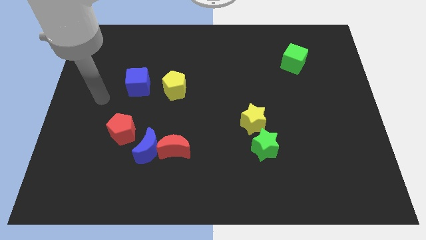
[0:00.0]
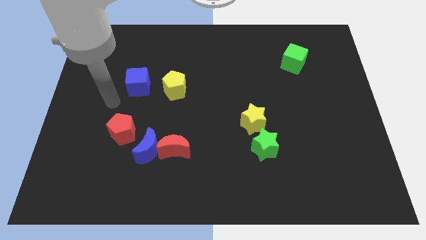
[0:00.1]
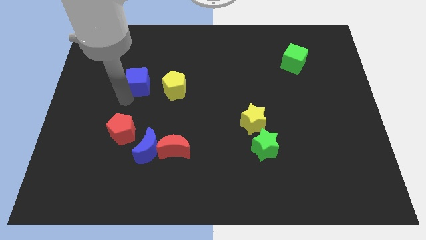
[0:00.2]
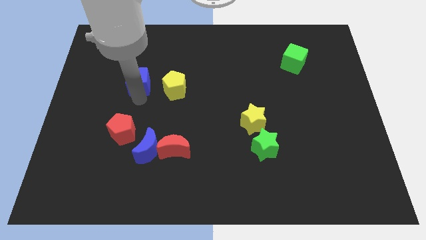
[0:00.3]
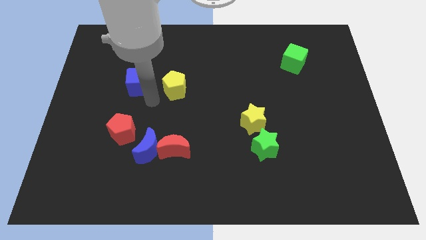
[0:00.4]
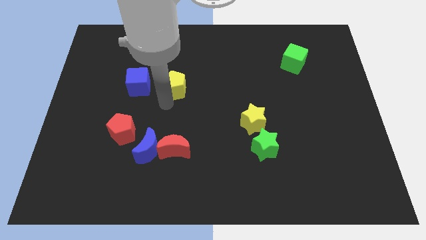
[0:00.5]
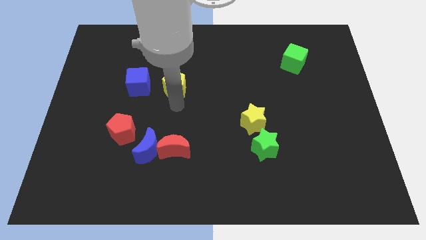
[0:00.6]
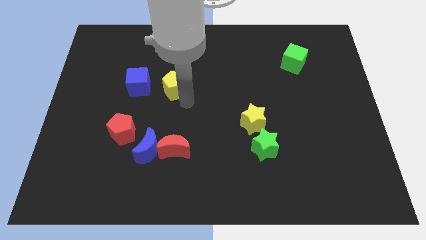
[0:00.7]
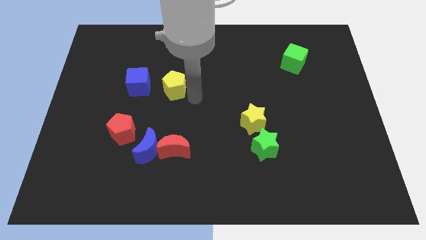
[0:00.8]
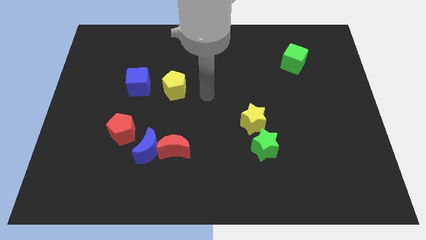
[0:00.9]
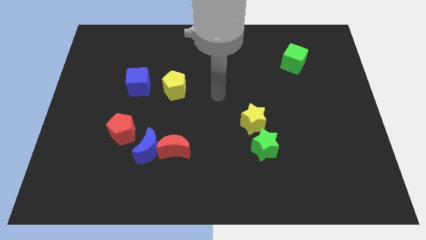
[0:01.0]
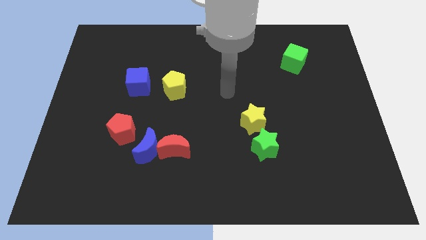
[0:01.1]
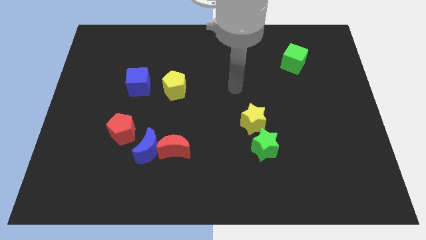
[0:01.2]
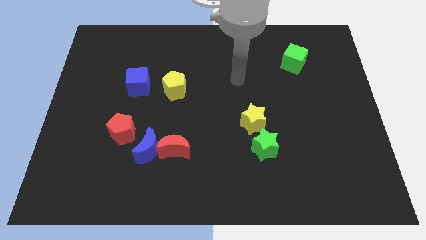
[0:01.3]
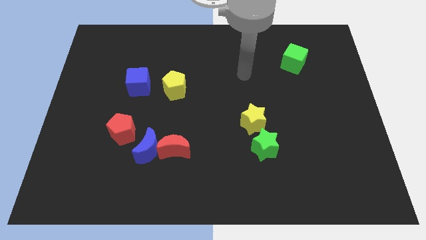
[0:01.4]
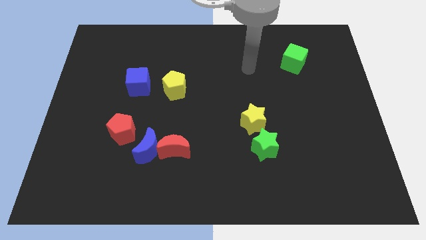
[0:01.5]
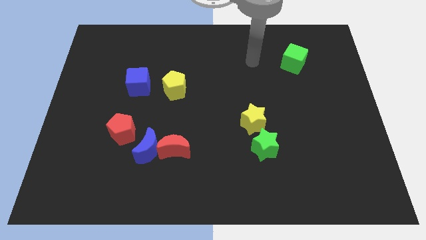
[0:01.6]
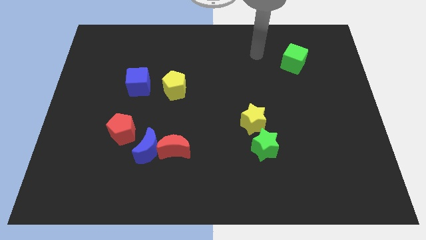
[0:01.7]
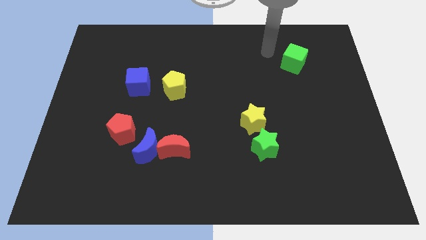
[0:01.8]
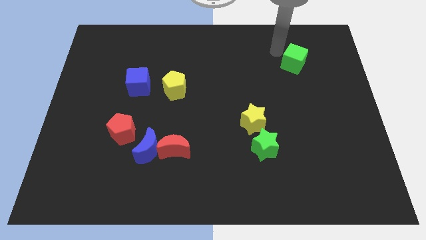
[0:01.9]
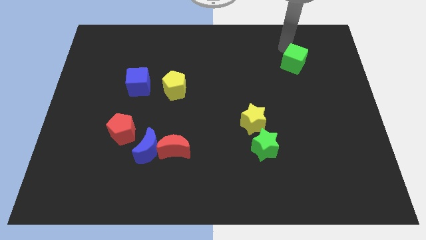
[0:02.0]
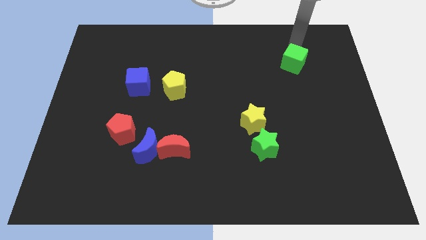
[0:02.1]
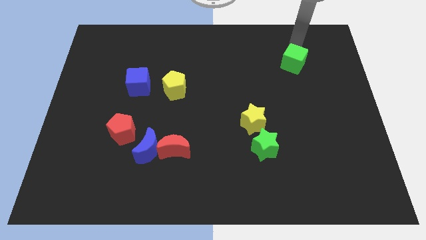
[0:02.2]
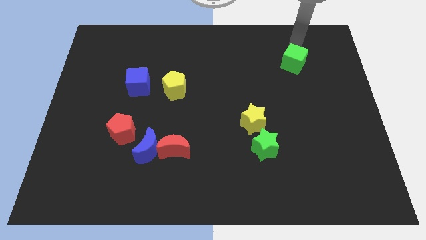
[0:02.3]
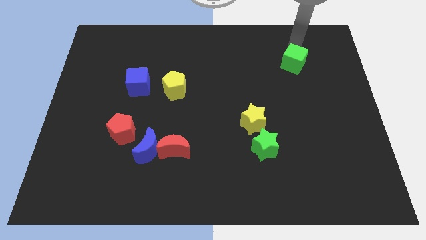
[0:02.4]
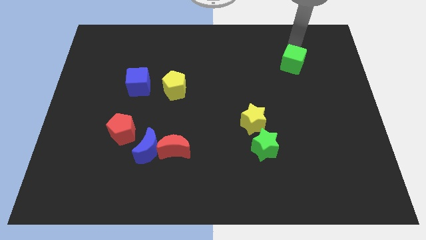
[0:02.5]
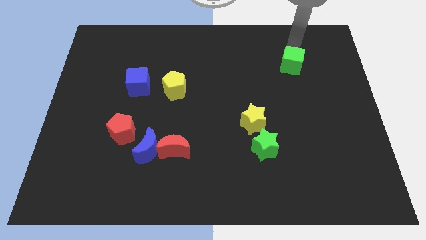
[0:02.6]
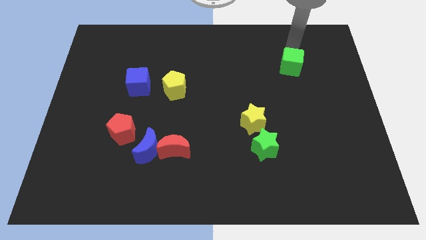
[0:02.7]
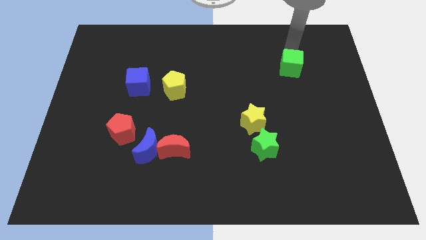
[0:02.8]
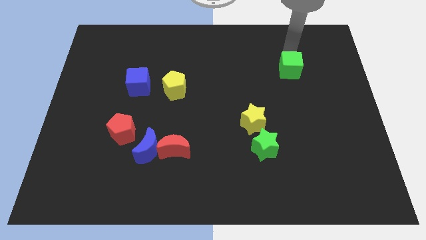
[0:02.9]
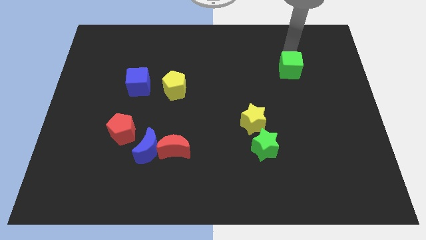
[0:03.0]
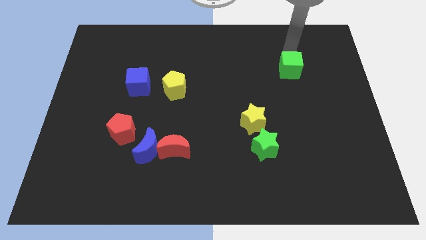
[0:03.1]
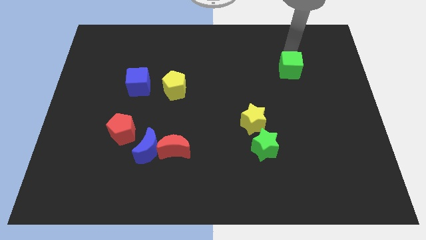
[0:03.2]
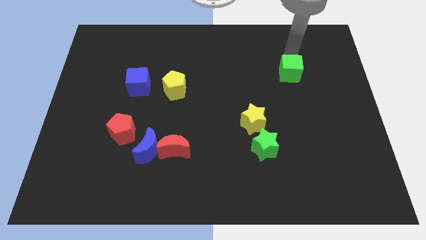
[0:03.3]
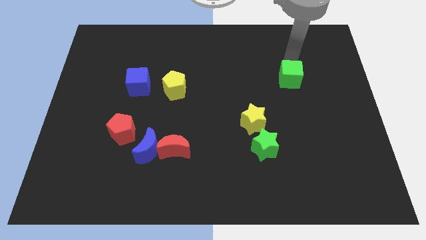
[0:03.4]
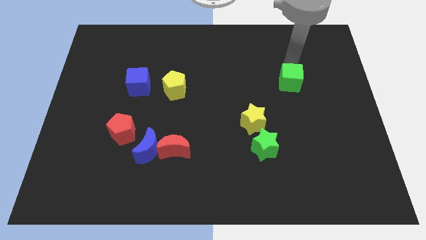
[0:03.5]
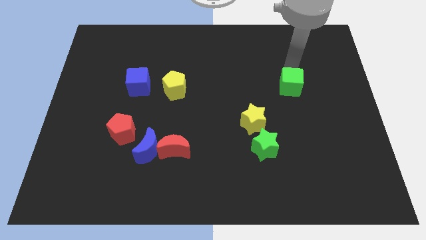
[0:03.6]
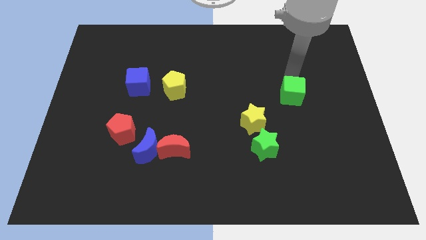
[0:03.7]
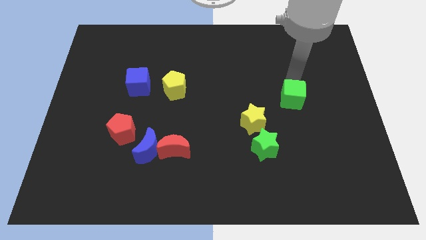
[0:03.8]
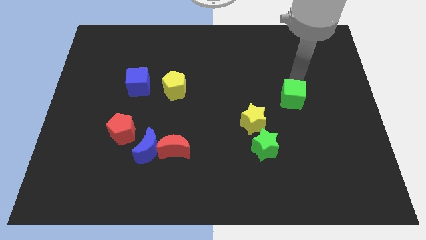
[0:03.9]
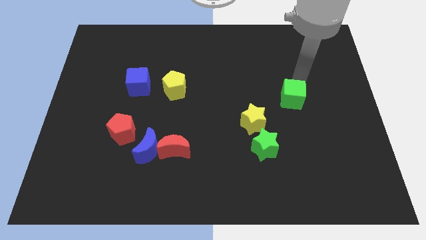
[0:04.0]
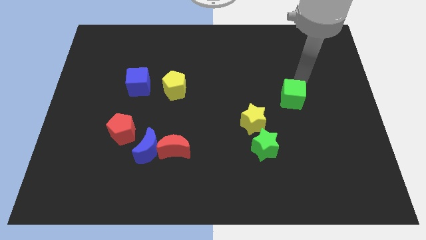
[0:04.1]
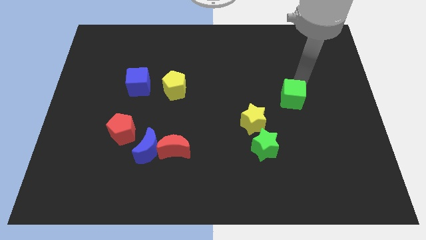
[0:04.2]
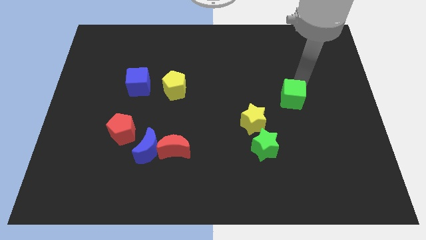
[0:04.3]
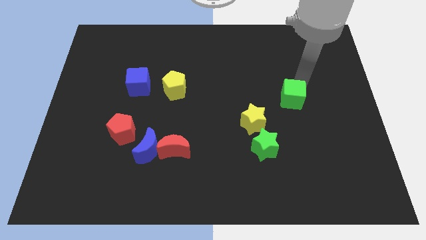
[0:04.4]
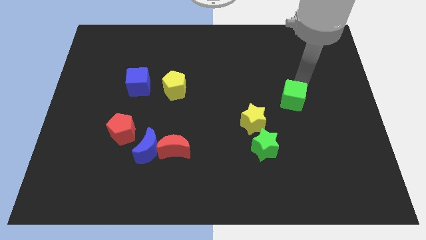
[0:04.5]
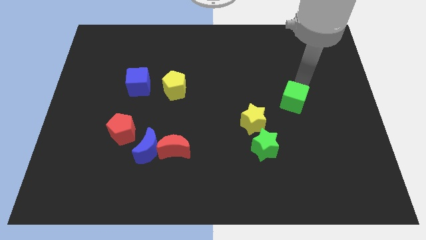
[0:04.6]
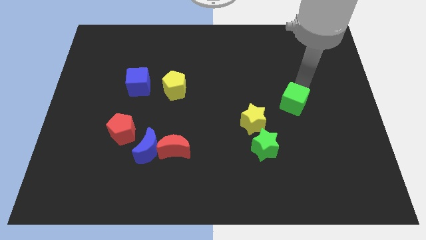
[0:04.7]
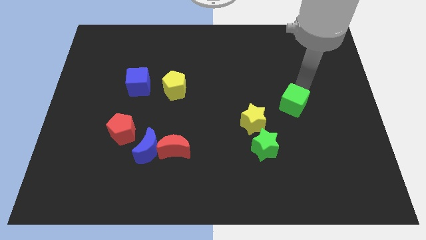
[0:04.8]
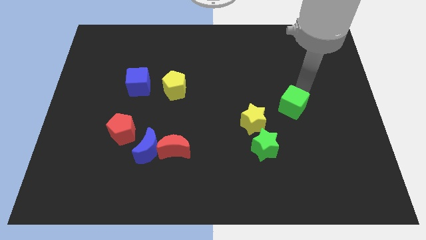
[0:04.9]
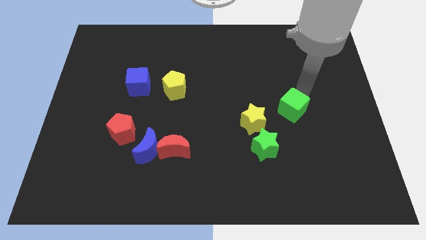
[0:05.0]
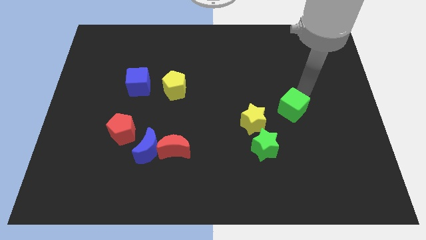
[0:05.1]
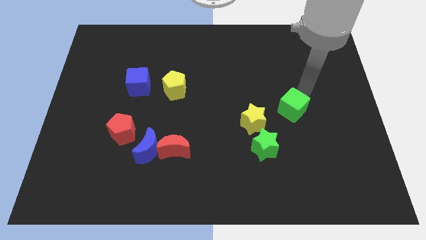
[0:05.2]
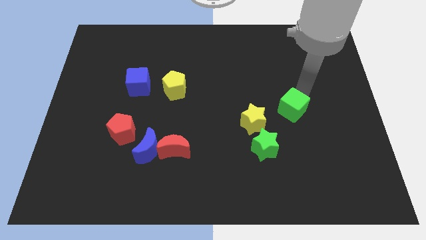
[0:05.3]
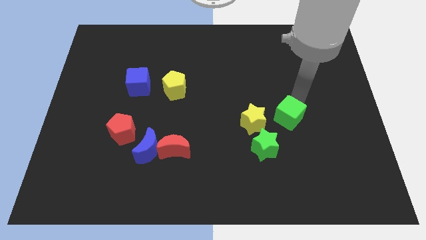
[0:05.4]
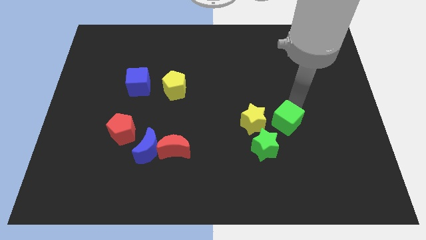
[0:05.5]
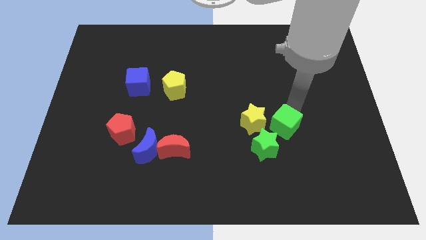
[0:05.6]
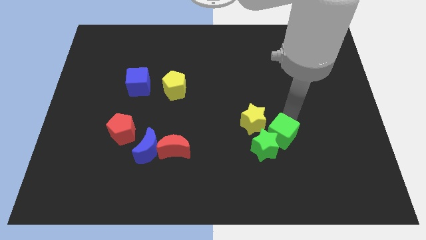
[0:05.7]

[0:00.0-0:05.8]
put the green cube towards the green star

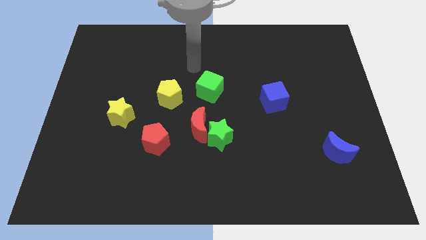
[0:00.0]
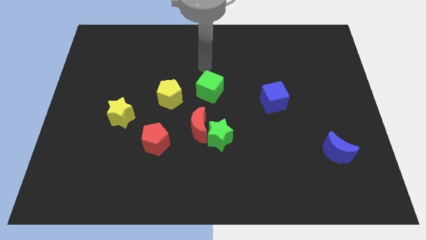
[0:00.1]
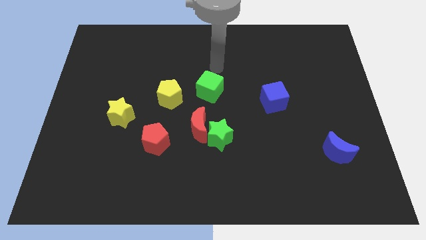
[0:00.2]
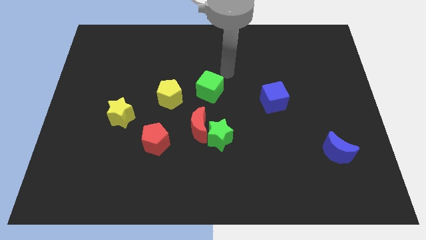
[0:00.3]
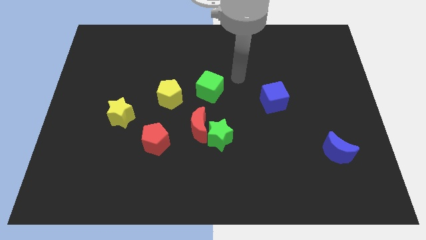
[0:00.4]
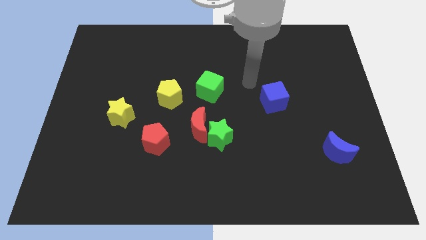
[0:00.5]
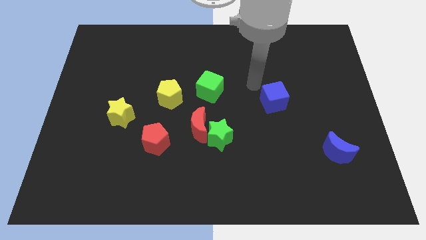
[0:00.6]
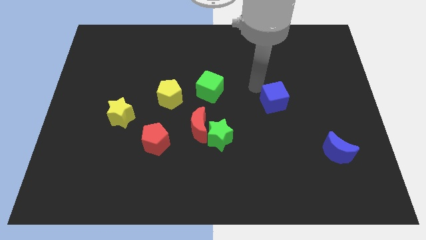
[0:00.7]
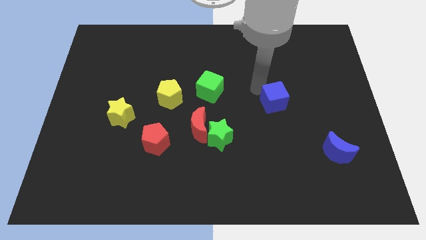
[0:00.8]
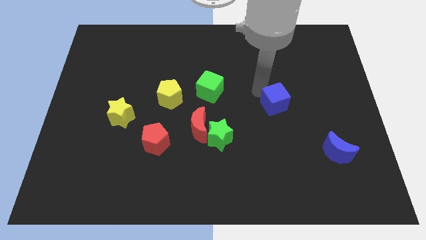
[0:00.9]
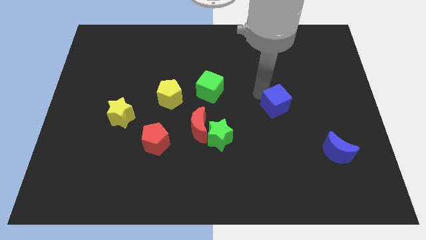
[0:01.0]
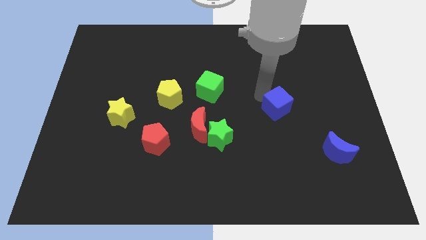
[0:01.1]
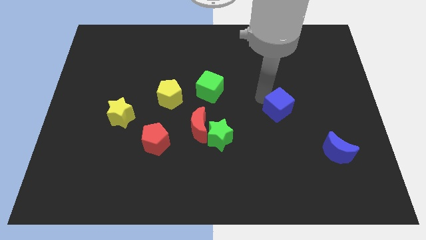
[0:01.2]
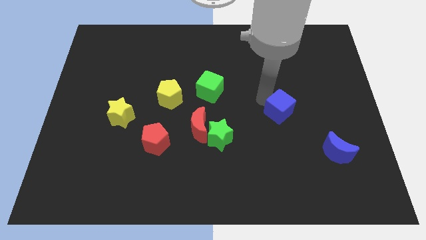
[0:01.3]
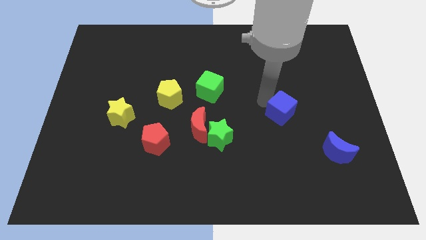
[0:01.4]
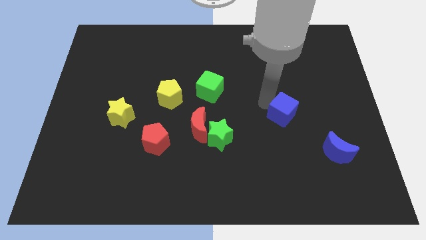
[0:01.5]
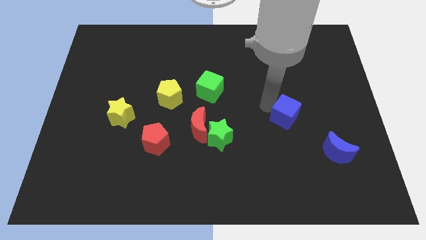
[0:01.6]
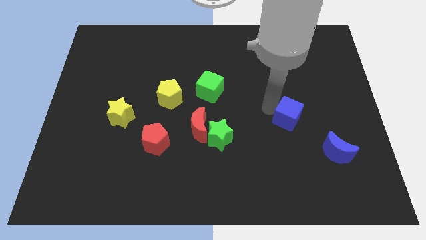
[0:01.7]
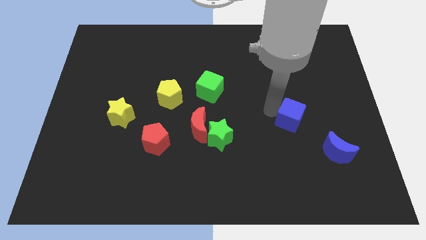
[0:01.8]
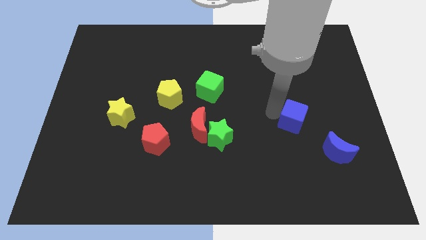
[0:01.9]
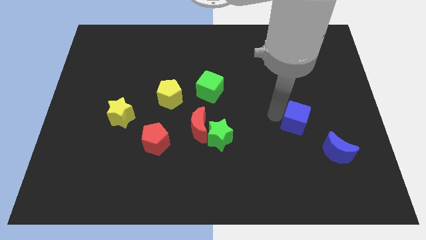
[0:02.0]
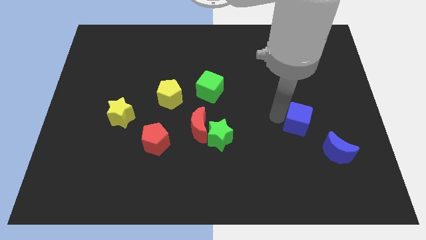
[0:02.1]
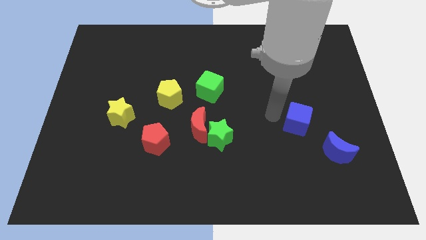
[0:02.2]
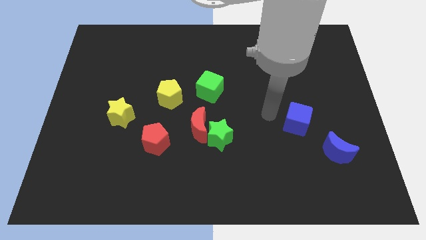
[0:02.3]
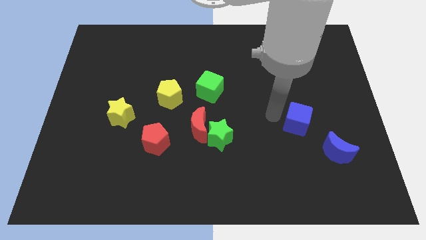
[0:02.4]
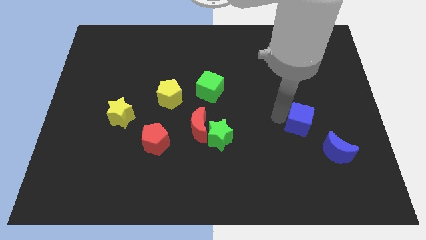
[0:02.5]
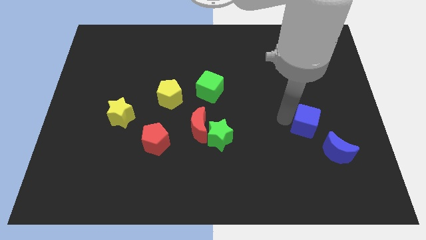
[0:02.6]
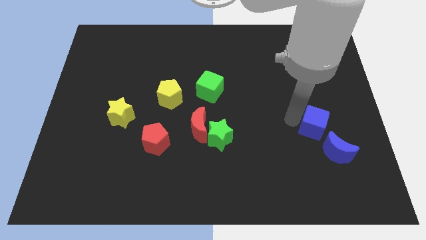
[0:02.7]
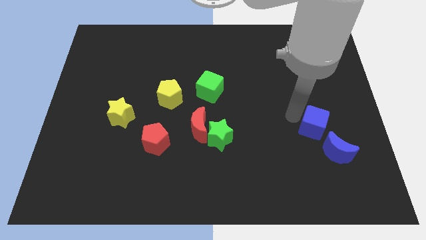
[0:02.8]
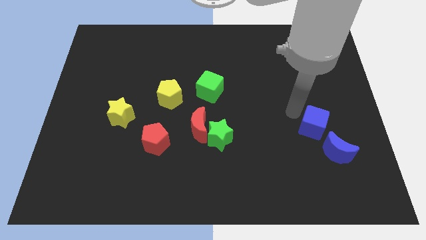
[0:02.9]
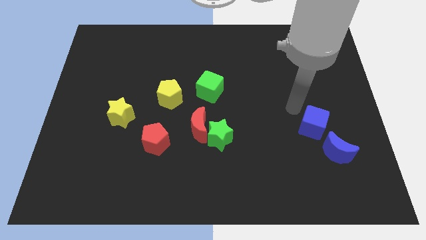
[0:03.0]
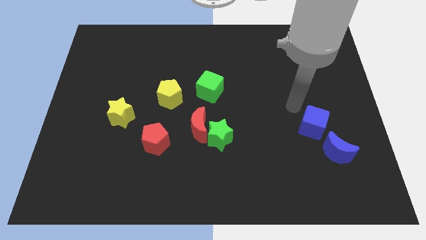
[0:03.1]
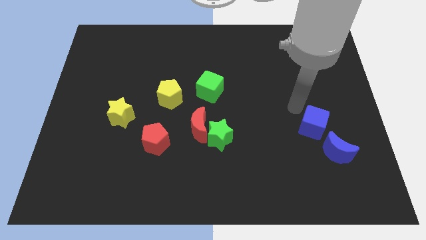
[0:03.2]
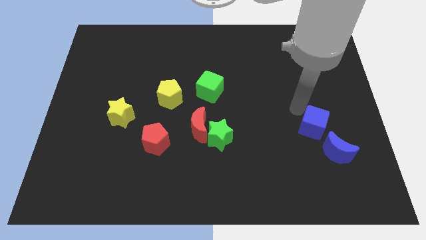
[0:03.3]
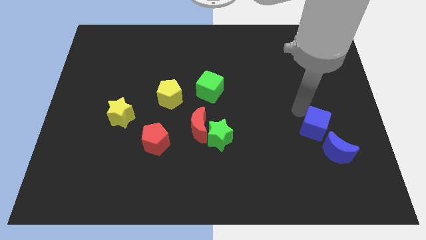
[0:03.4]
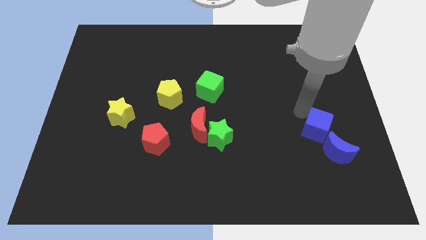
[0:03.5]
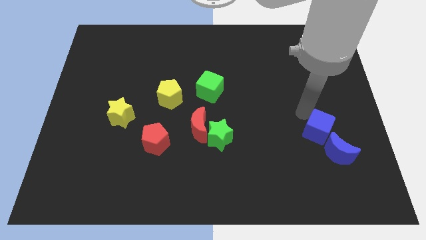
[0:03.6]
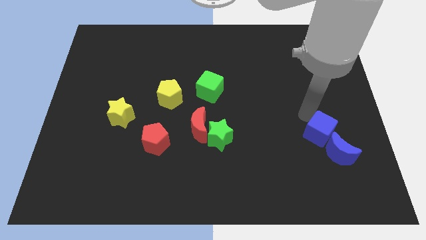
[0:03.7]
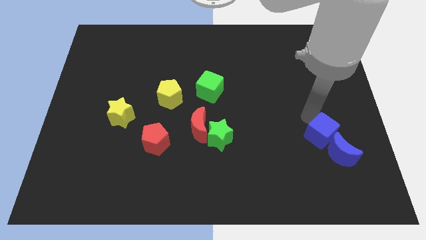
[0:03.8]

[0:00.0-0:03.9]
slide the blue cube next to the blue moon
